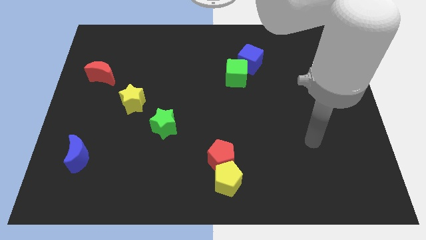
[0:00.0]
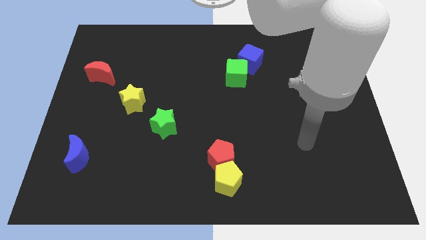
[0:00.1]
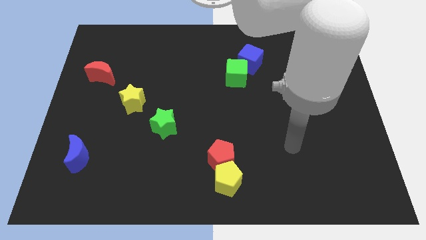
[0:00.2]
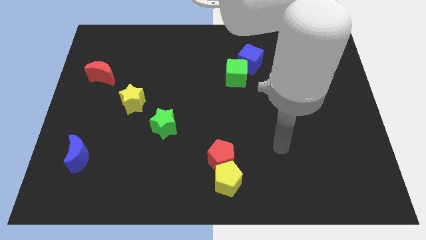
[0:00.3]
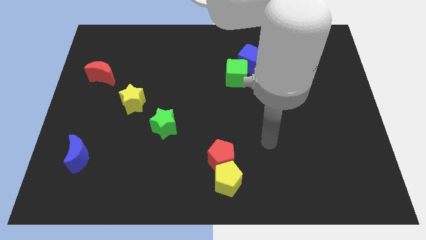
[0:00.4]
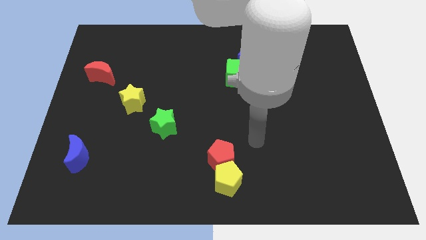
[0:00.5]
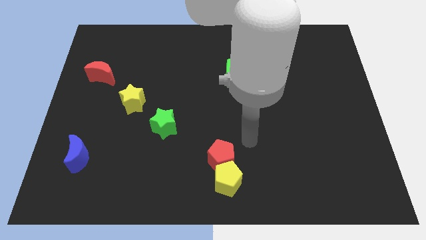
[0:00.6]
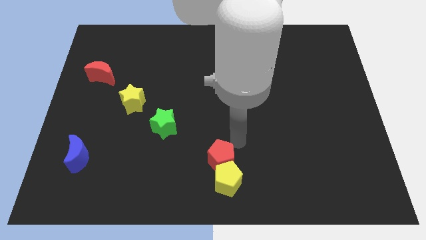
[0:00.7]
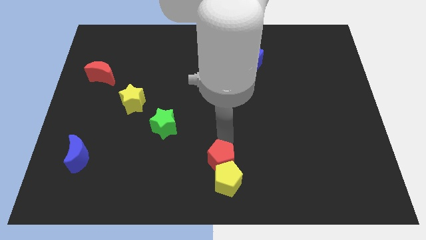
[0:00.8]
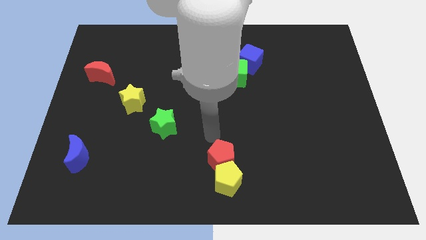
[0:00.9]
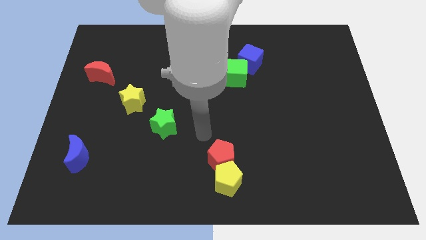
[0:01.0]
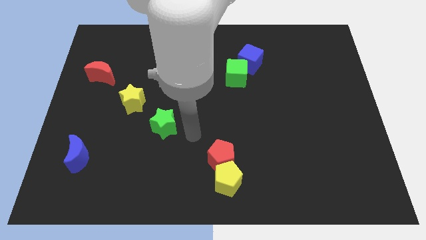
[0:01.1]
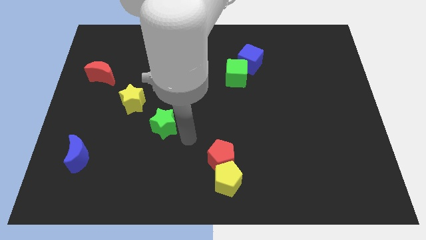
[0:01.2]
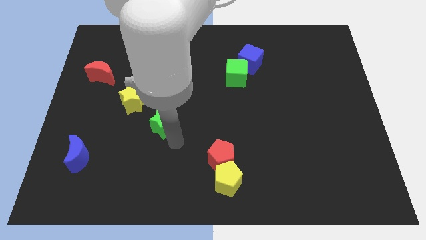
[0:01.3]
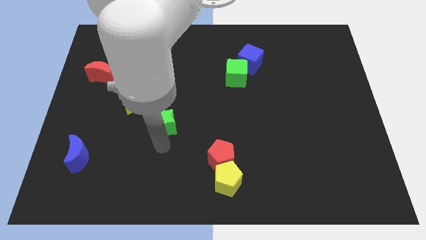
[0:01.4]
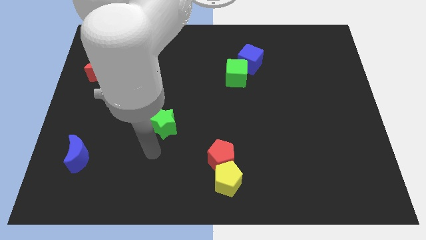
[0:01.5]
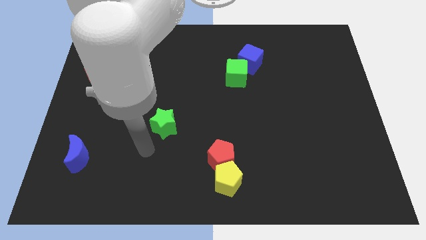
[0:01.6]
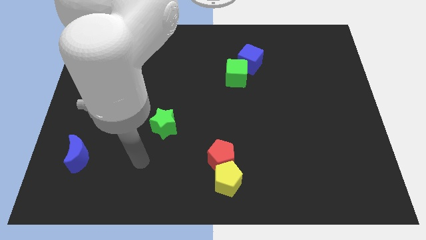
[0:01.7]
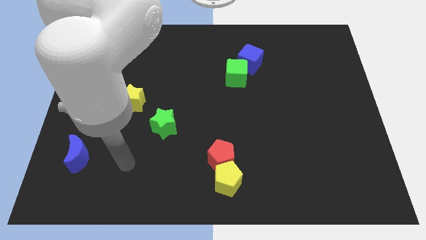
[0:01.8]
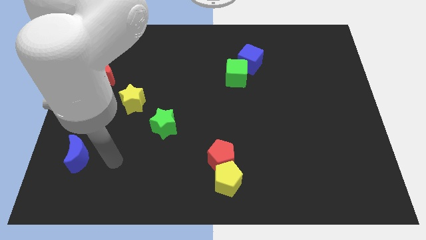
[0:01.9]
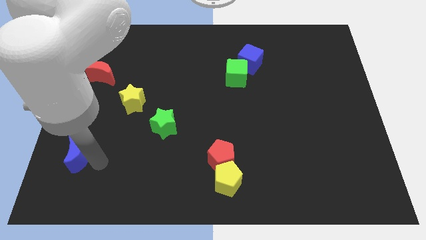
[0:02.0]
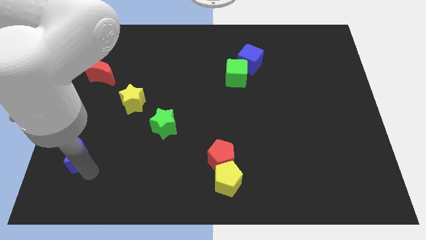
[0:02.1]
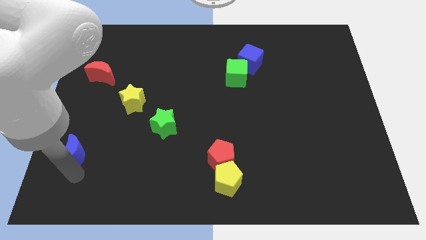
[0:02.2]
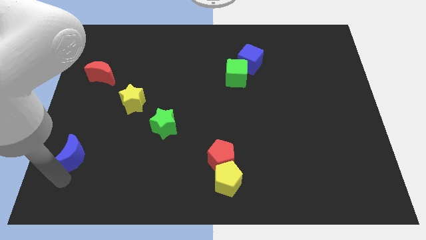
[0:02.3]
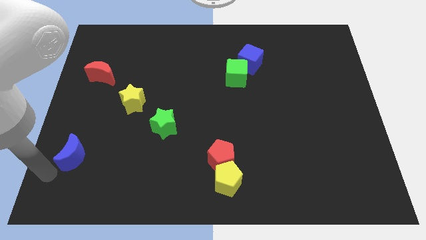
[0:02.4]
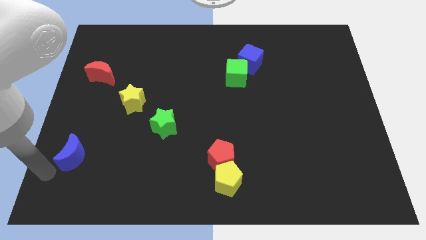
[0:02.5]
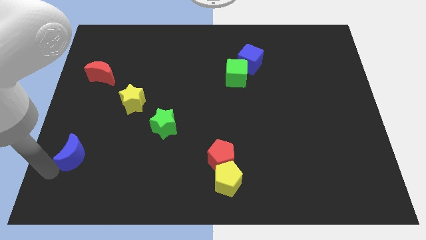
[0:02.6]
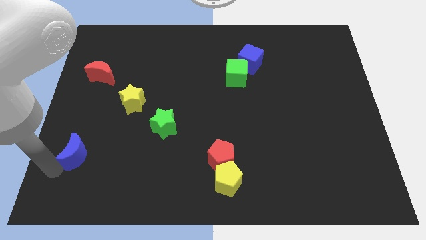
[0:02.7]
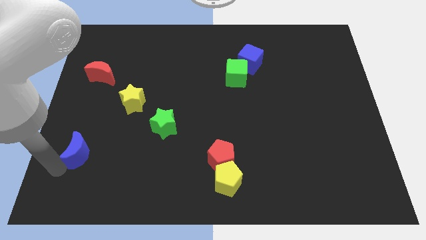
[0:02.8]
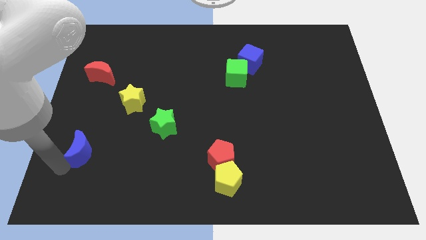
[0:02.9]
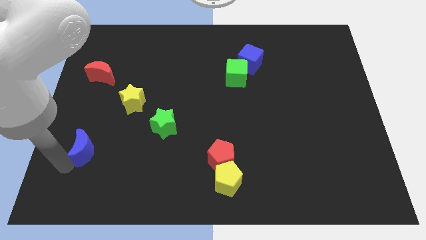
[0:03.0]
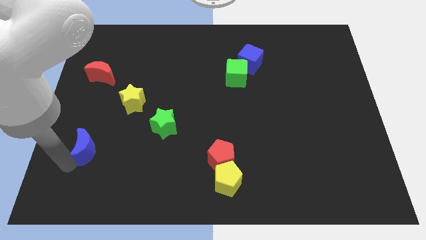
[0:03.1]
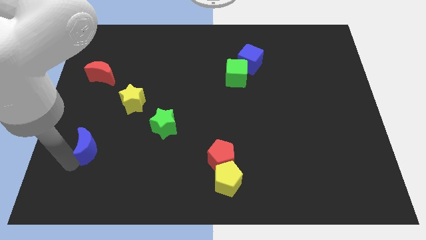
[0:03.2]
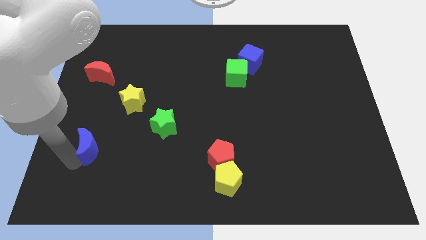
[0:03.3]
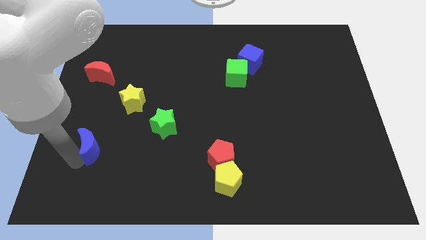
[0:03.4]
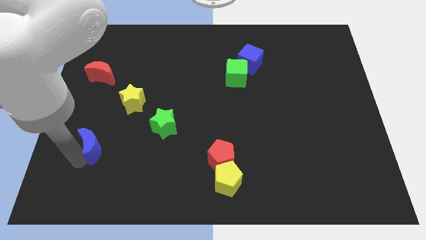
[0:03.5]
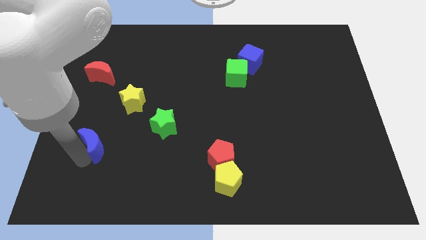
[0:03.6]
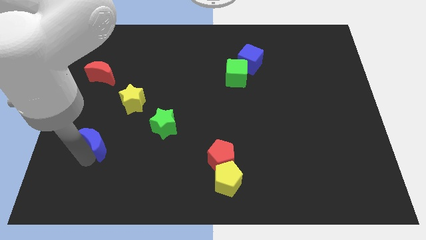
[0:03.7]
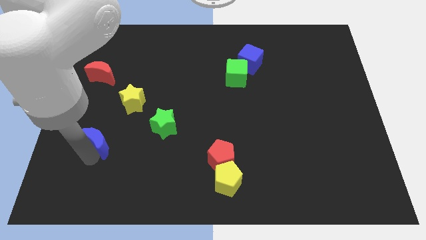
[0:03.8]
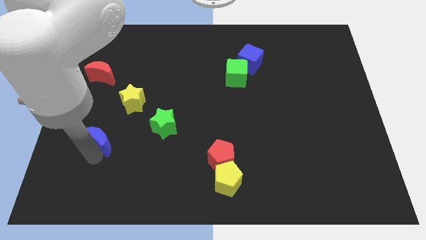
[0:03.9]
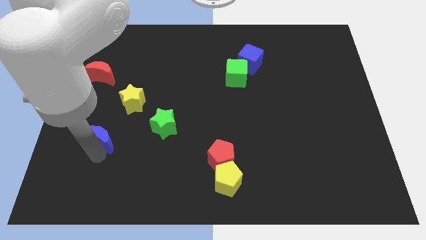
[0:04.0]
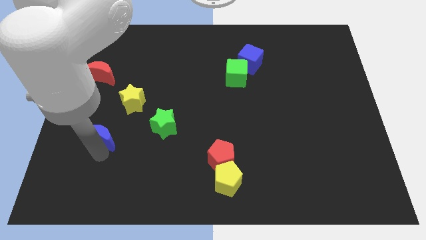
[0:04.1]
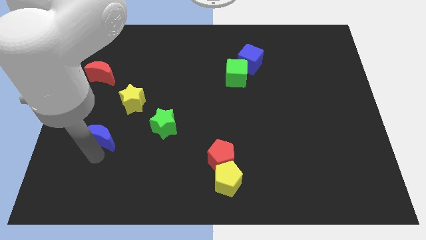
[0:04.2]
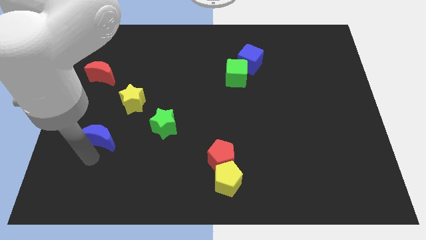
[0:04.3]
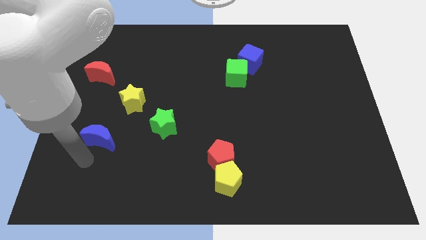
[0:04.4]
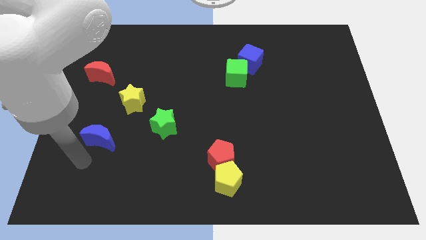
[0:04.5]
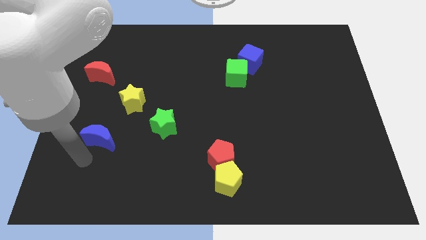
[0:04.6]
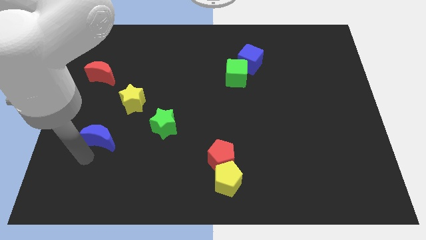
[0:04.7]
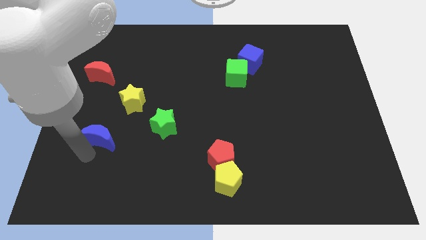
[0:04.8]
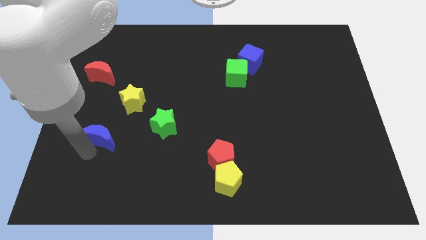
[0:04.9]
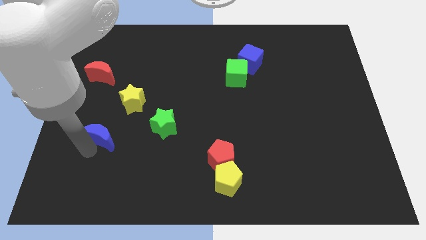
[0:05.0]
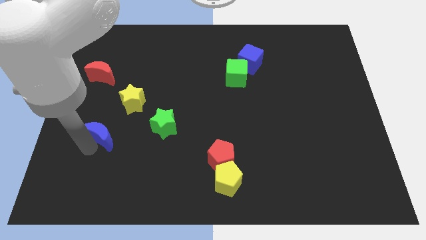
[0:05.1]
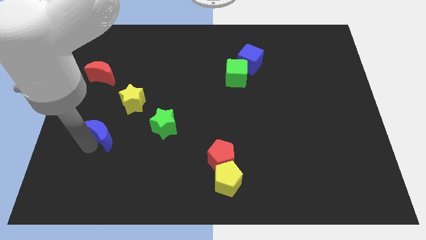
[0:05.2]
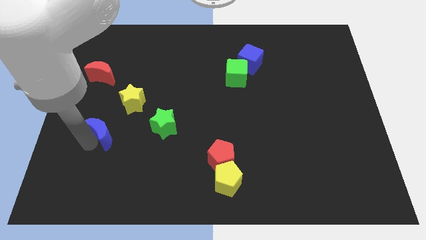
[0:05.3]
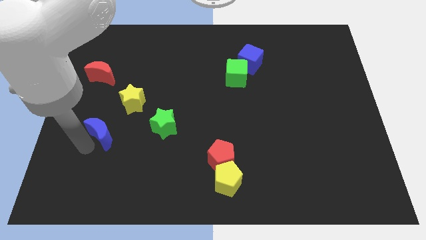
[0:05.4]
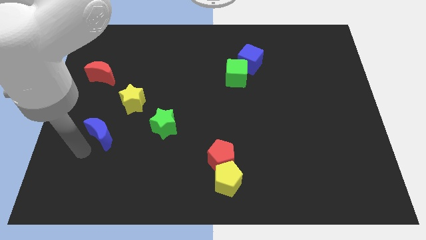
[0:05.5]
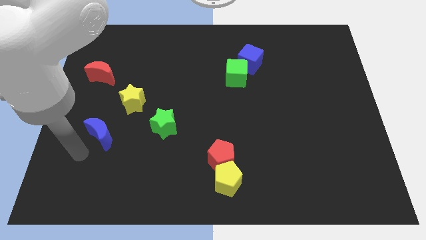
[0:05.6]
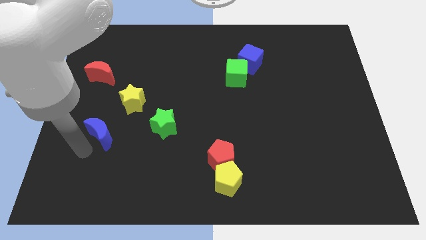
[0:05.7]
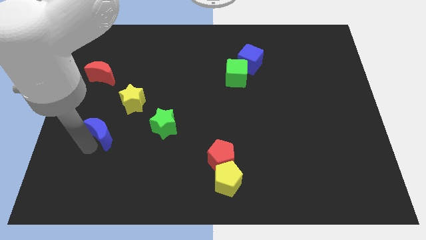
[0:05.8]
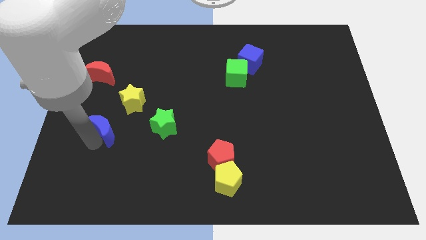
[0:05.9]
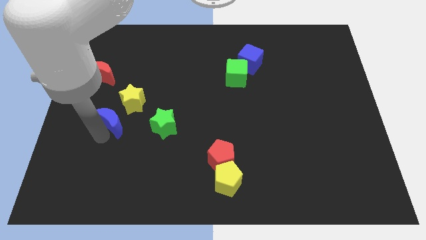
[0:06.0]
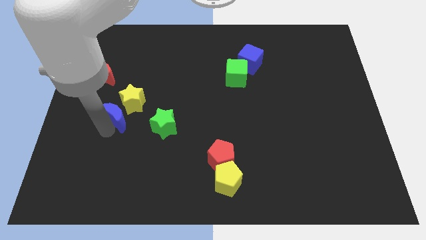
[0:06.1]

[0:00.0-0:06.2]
move the blue moon next to the yellow star

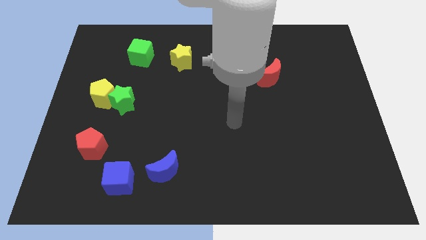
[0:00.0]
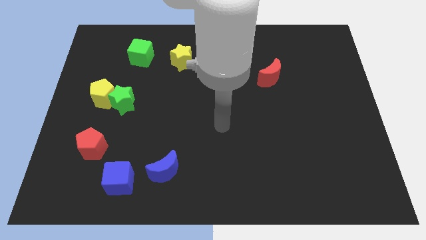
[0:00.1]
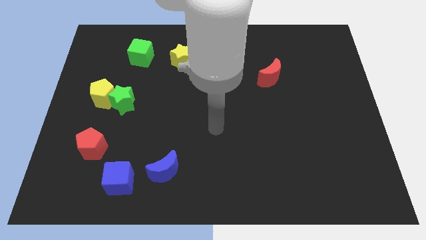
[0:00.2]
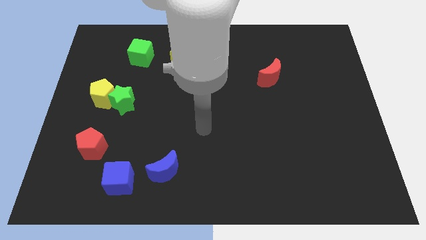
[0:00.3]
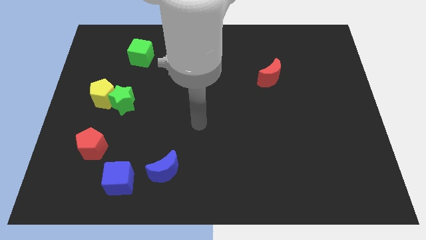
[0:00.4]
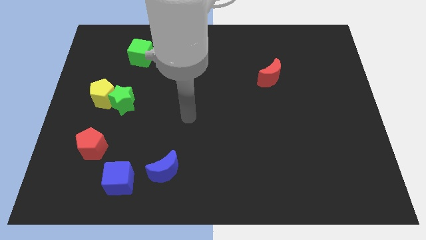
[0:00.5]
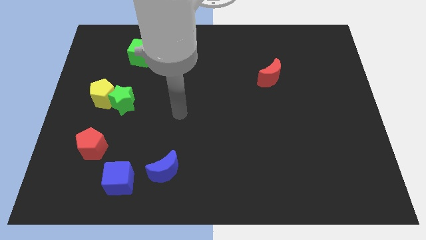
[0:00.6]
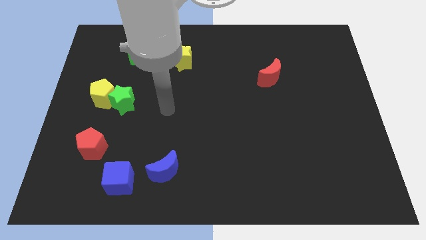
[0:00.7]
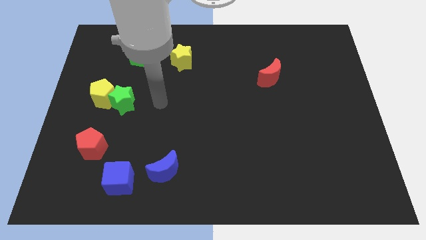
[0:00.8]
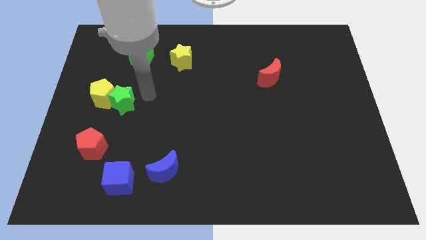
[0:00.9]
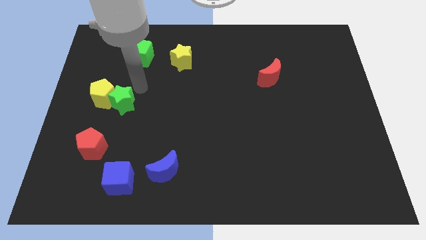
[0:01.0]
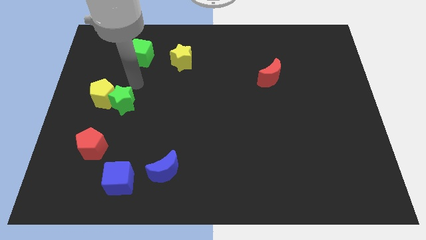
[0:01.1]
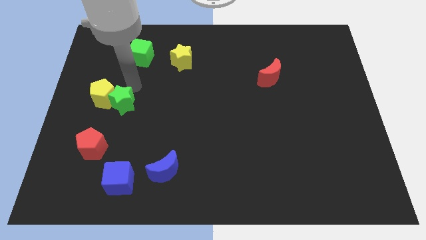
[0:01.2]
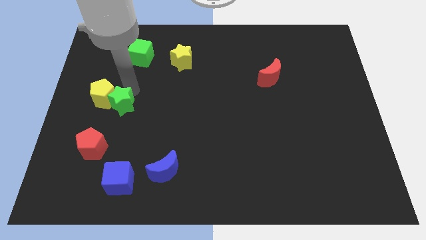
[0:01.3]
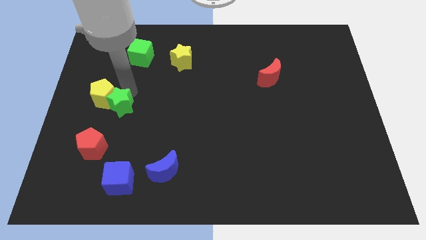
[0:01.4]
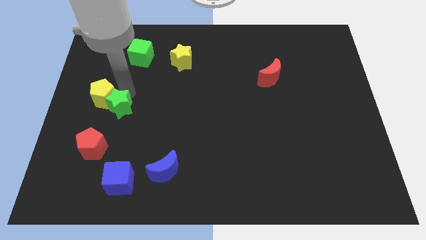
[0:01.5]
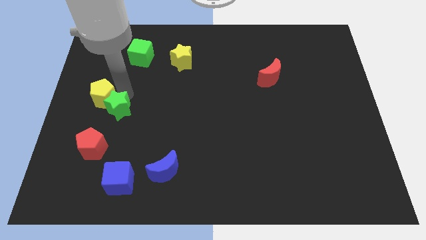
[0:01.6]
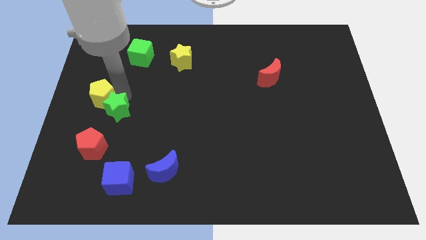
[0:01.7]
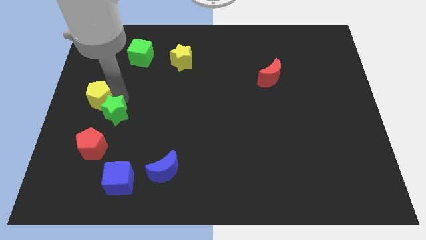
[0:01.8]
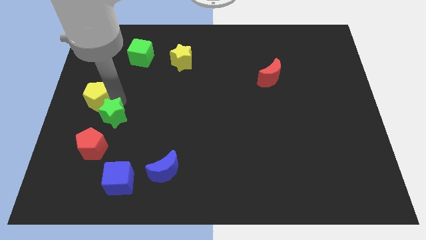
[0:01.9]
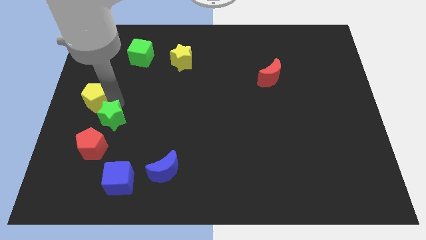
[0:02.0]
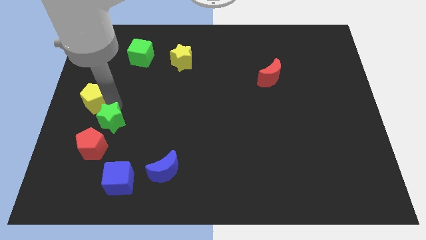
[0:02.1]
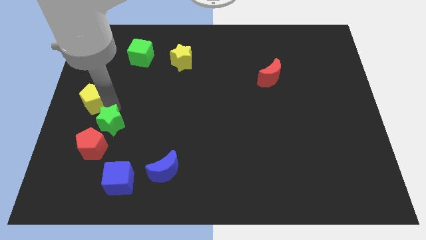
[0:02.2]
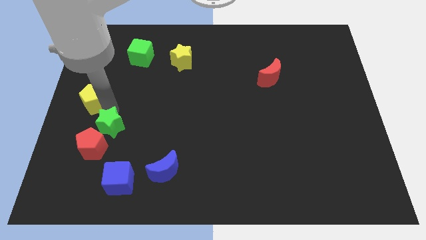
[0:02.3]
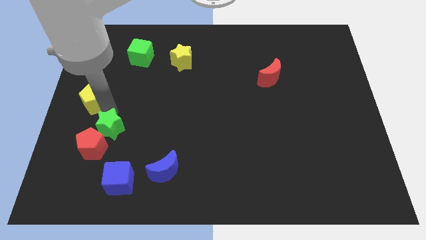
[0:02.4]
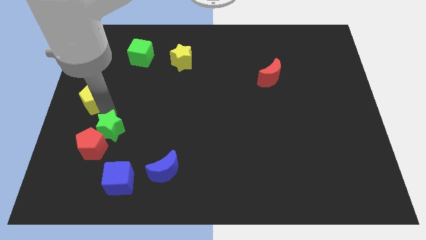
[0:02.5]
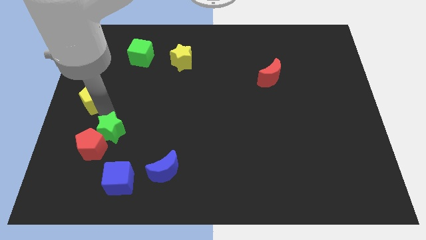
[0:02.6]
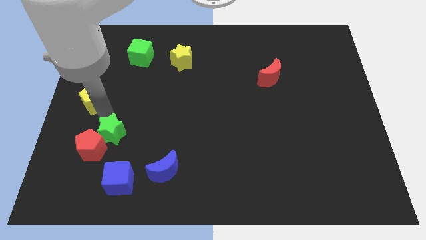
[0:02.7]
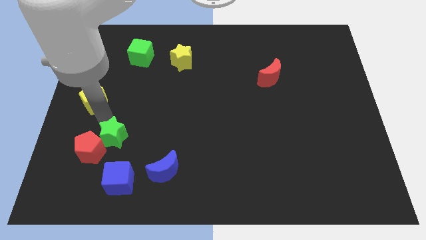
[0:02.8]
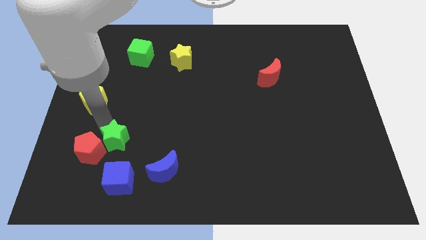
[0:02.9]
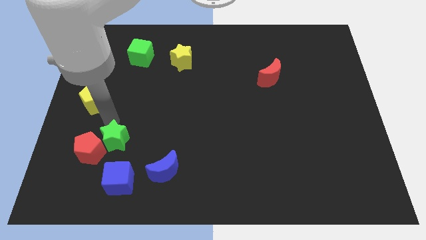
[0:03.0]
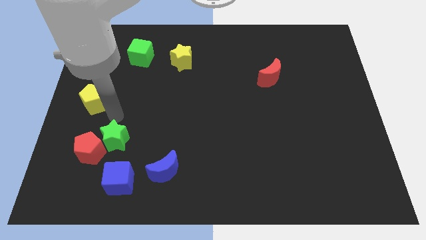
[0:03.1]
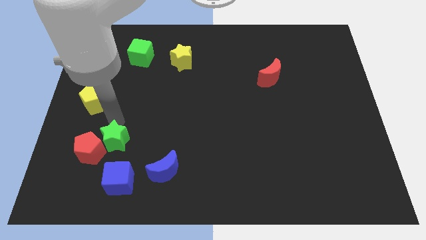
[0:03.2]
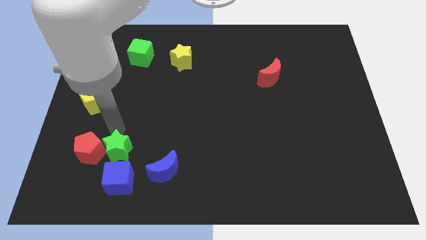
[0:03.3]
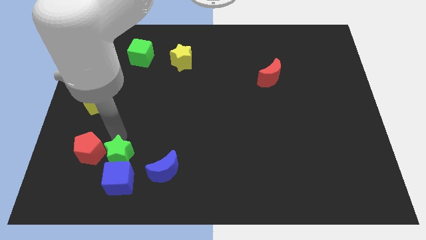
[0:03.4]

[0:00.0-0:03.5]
move the green star close to the blue cube
